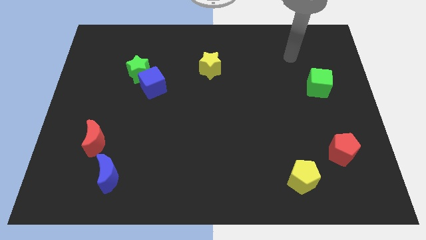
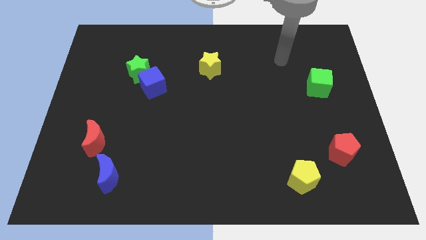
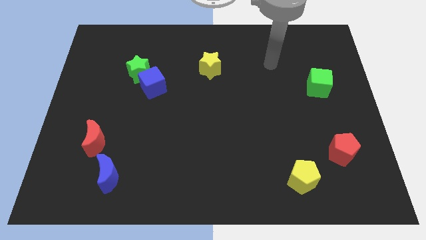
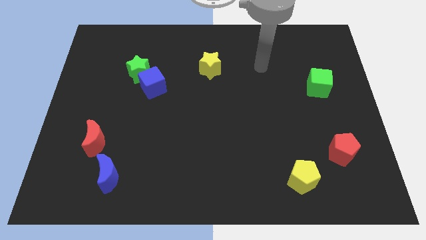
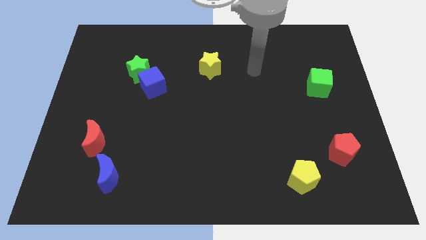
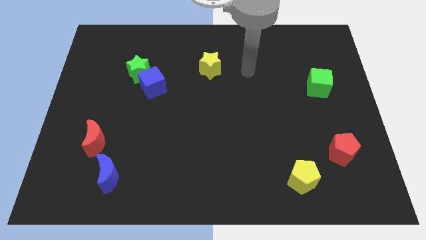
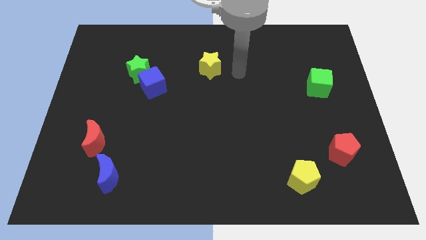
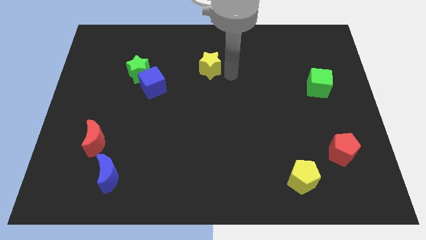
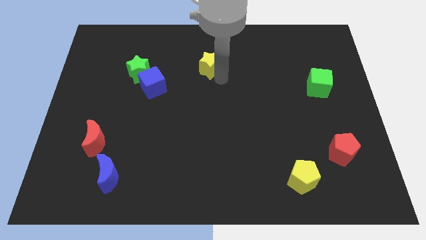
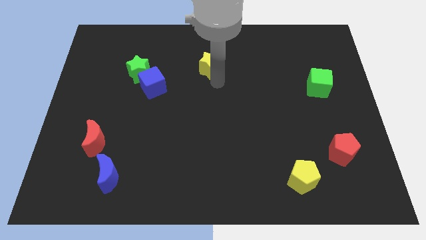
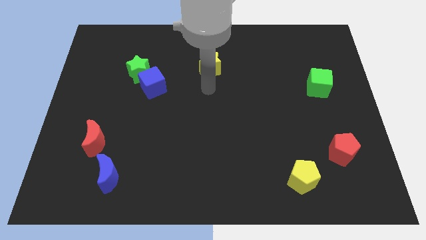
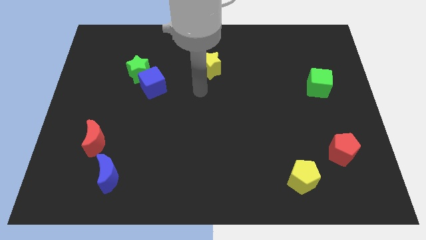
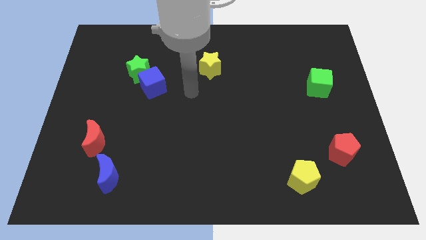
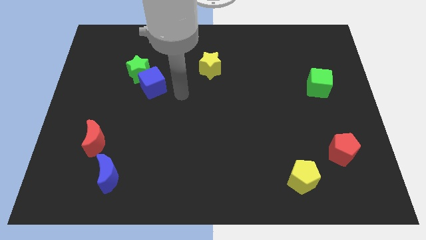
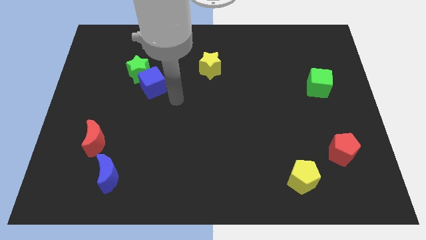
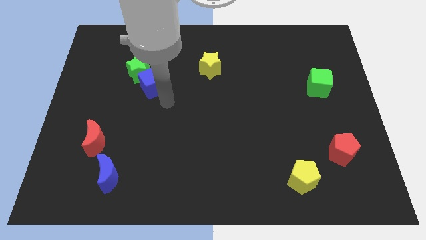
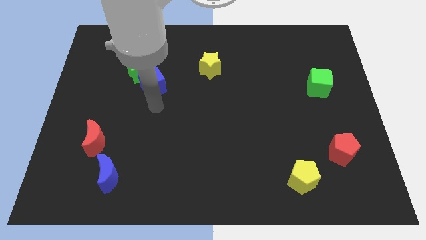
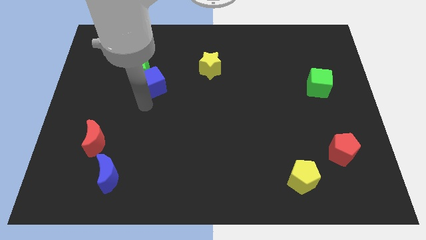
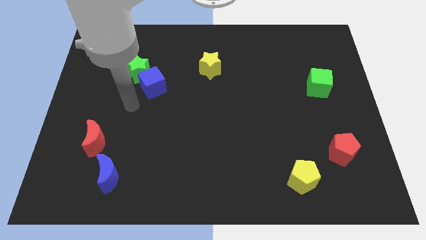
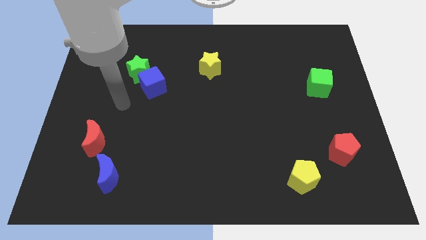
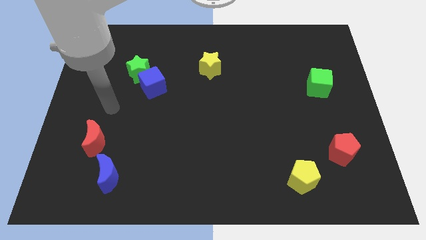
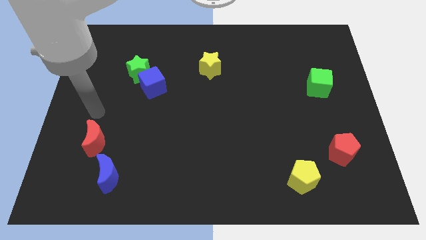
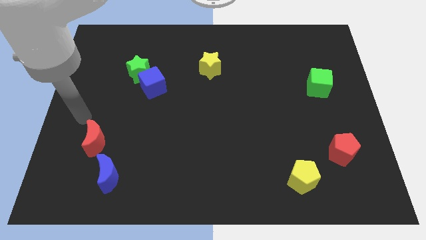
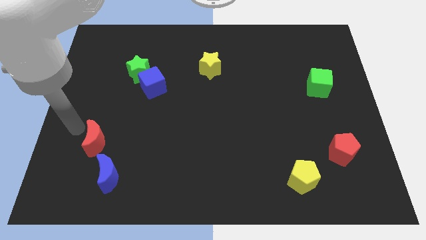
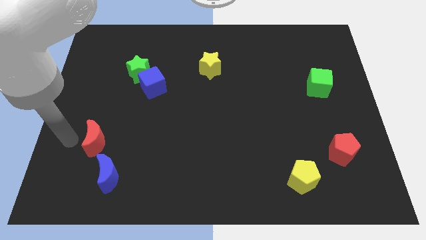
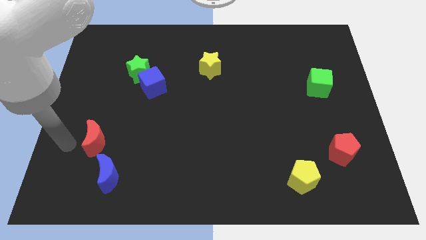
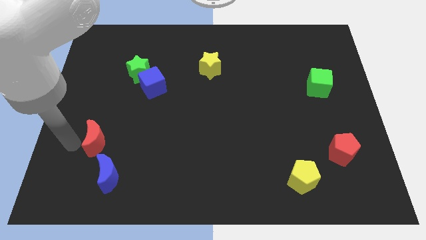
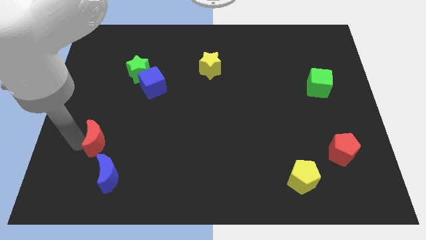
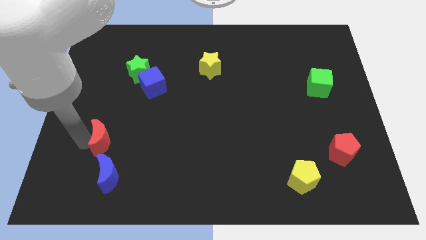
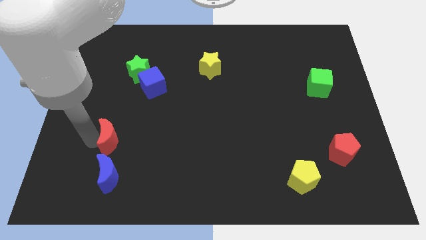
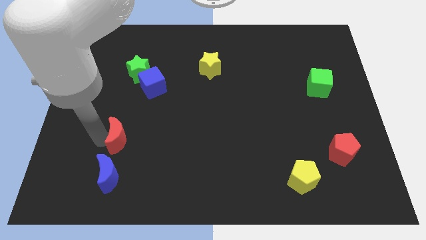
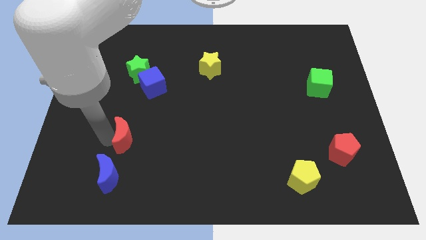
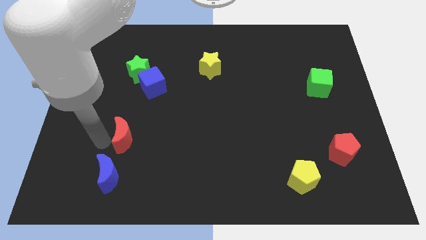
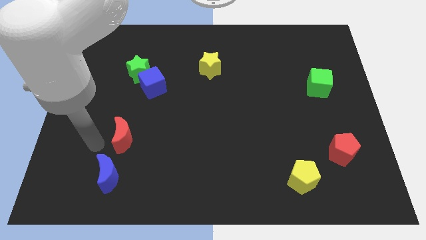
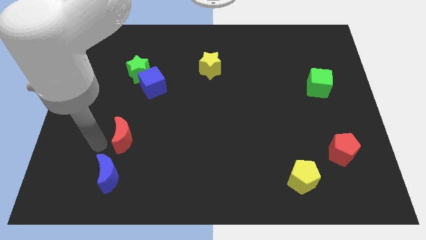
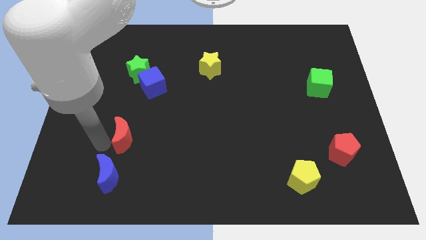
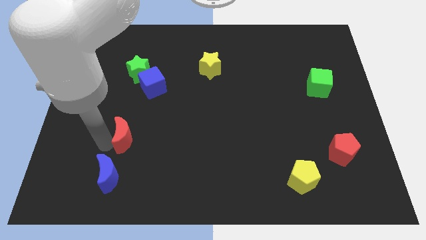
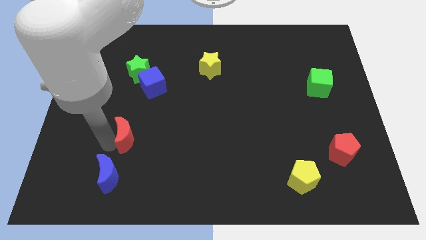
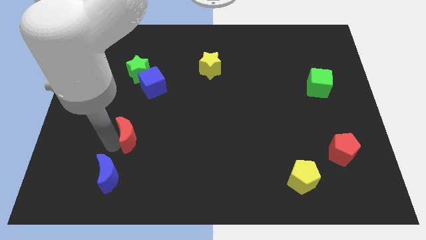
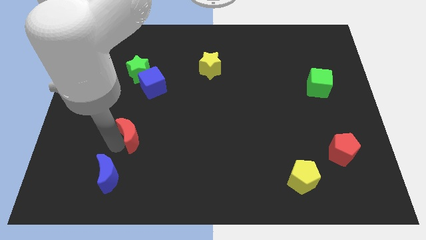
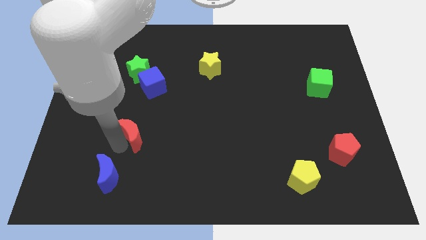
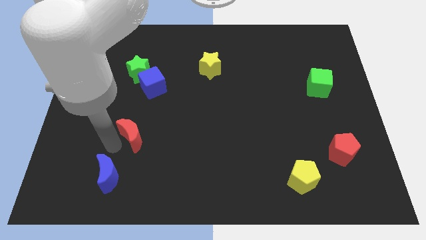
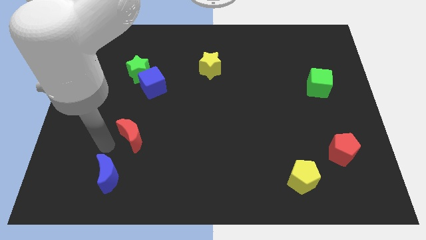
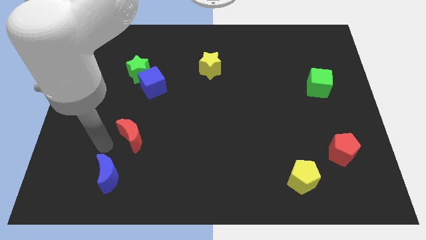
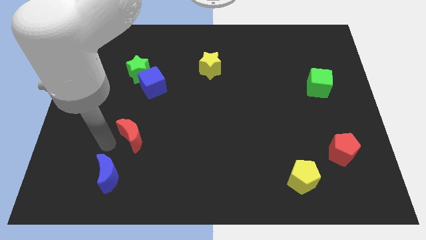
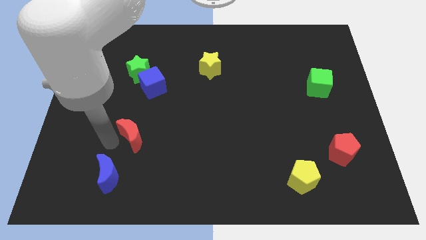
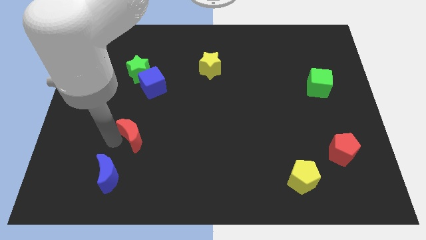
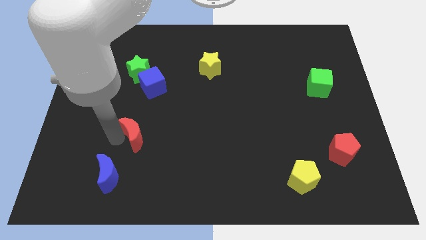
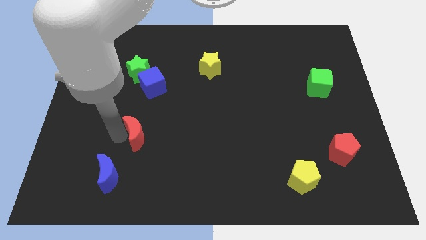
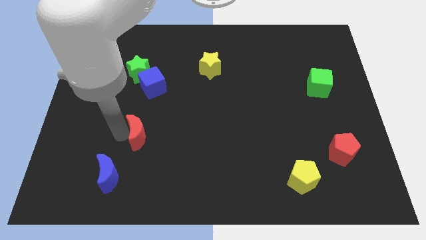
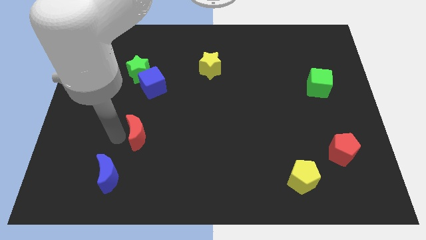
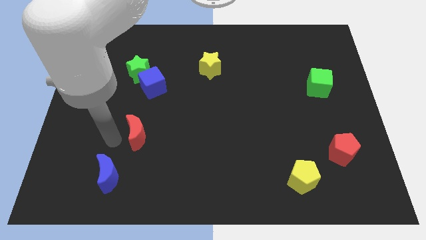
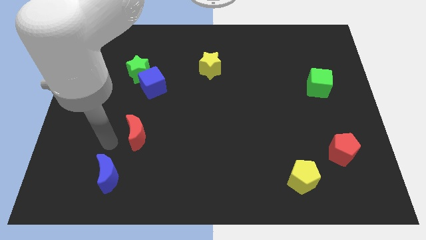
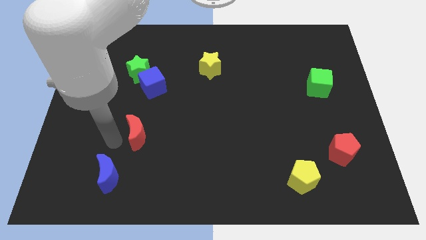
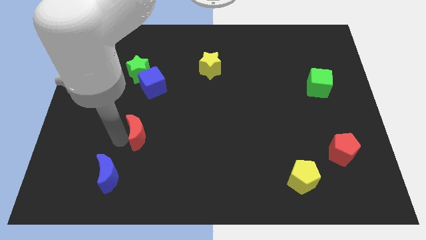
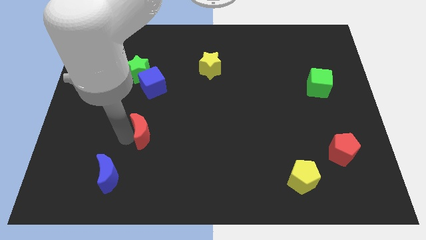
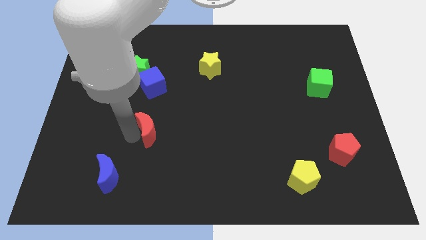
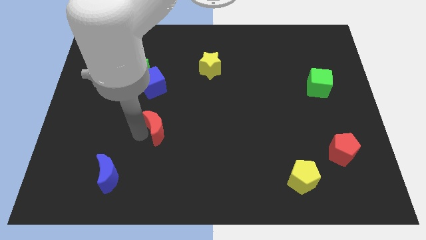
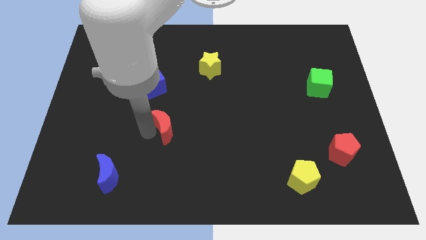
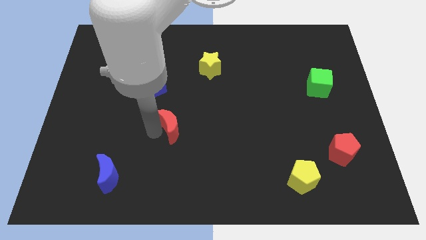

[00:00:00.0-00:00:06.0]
put the red moon to the center of the board
